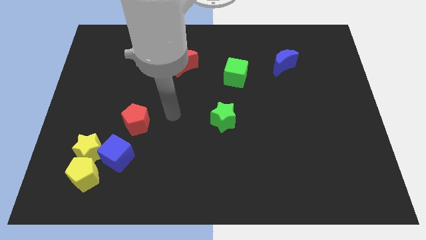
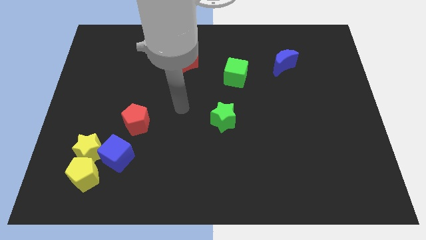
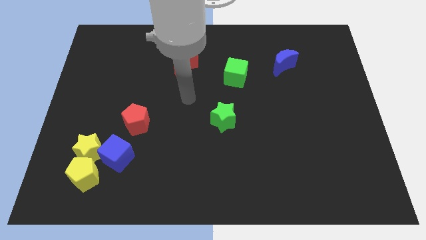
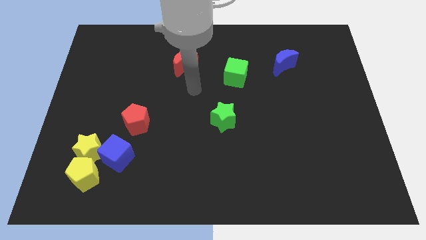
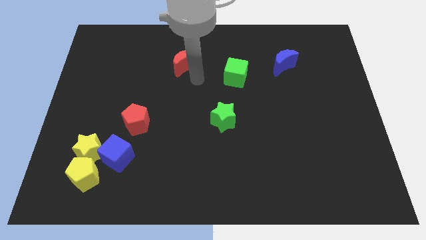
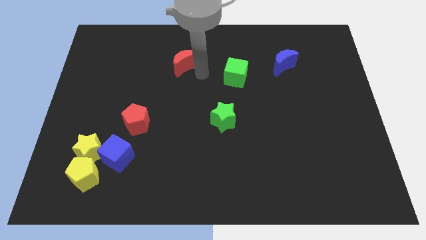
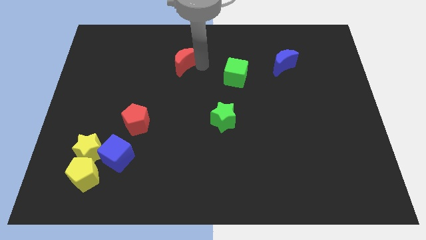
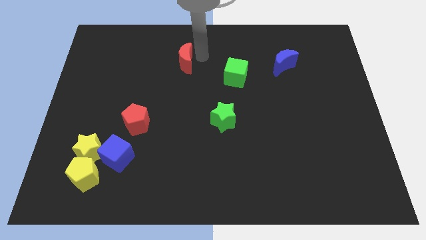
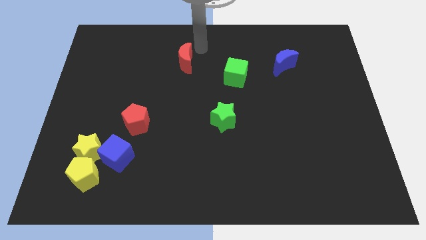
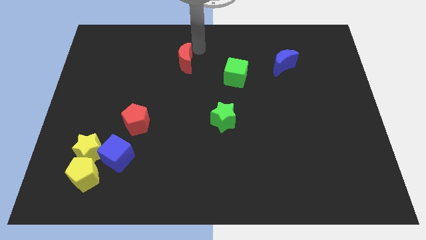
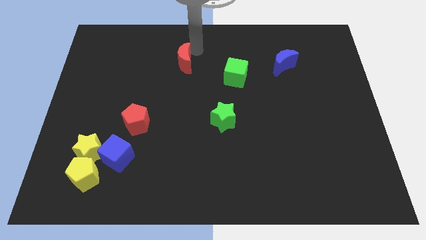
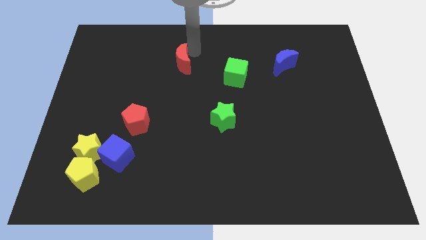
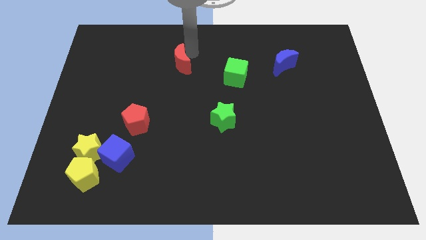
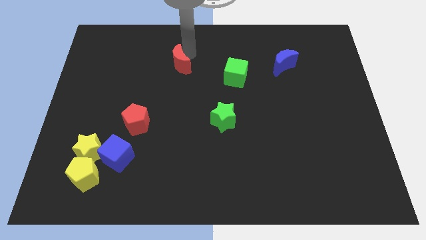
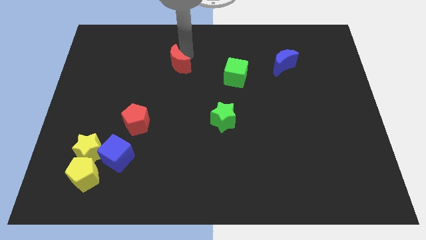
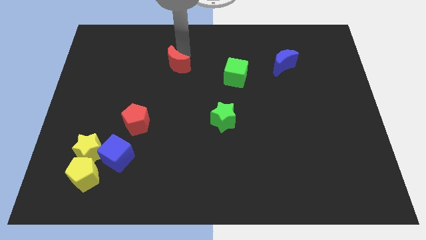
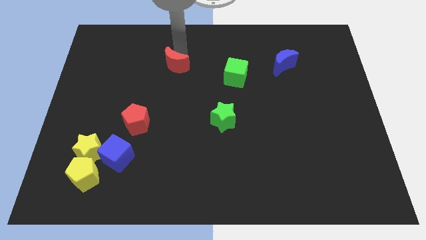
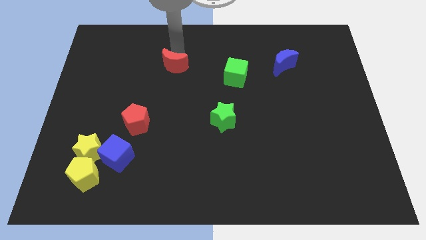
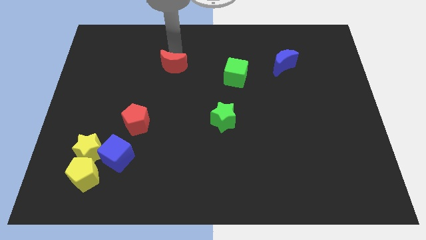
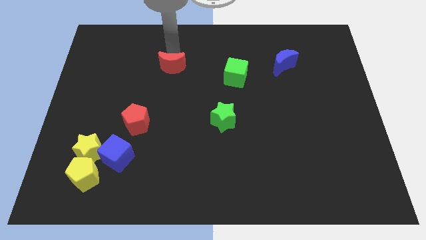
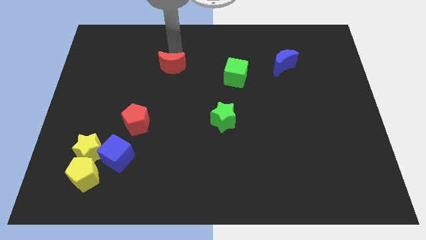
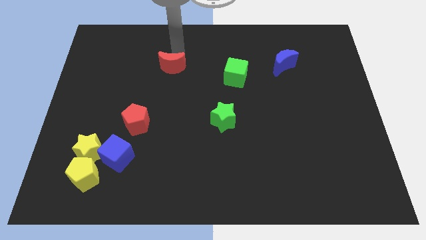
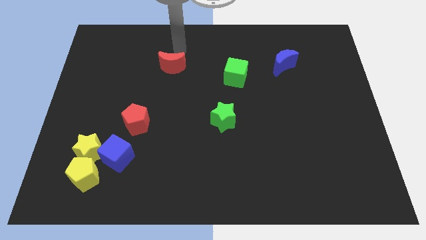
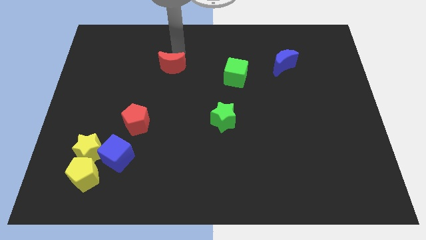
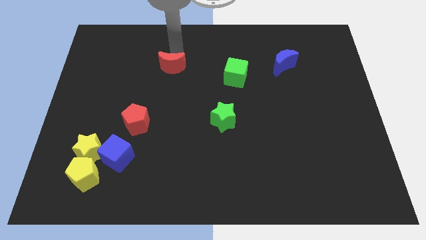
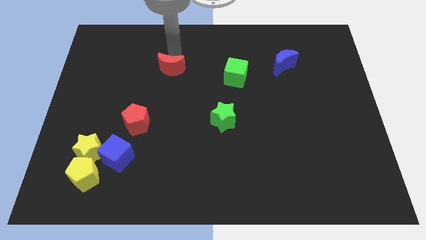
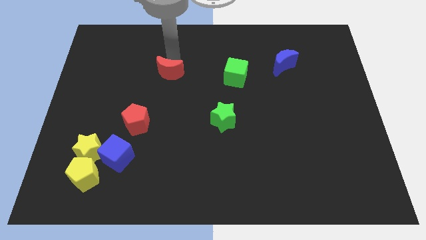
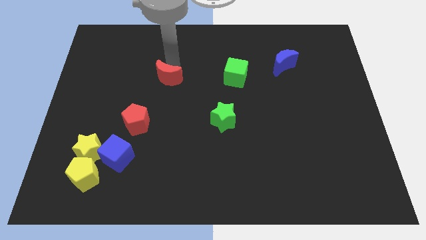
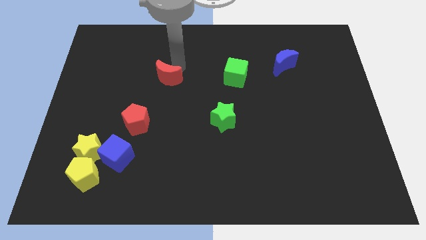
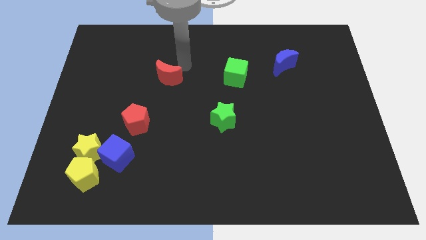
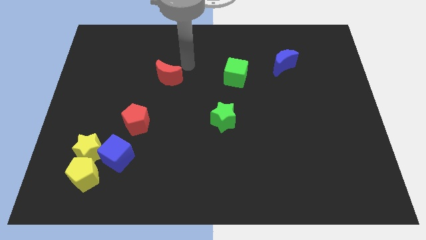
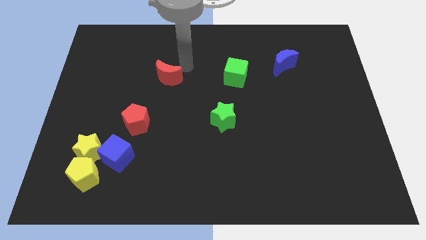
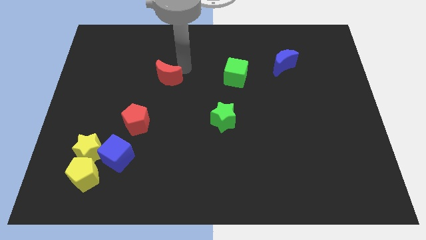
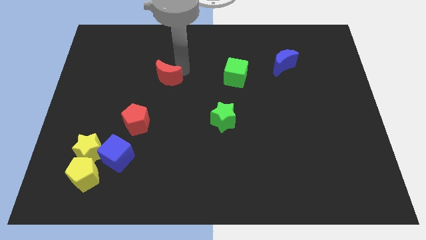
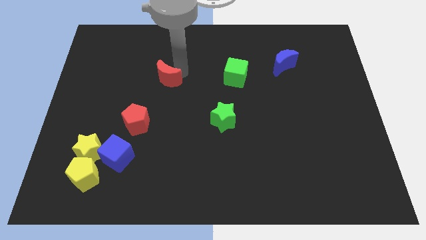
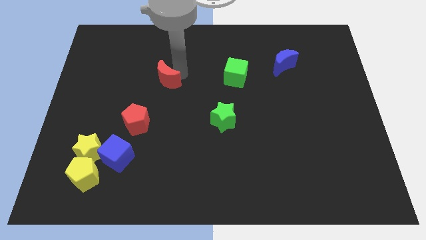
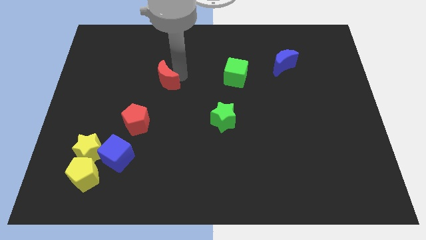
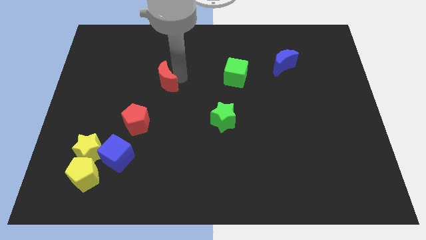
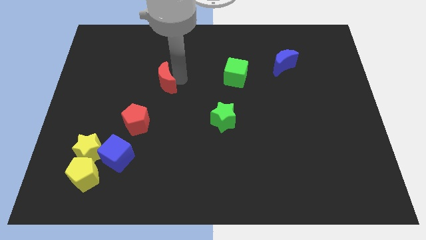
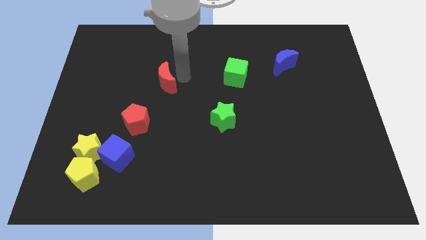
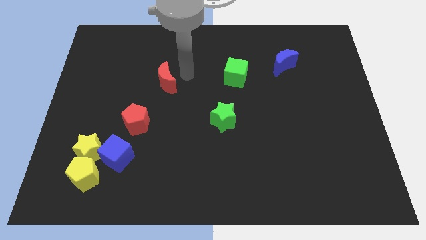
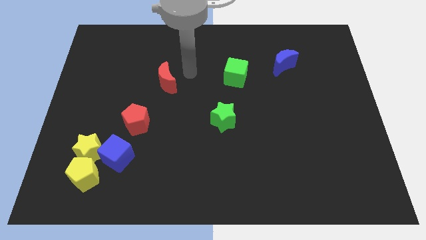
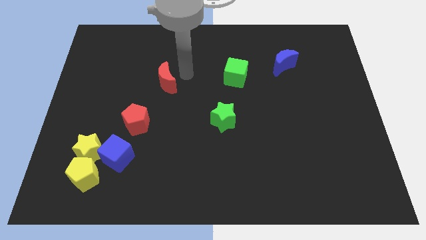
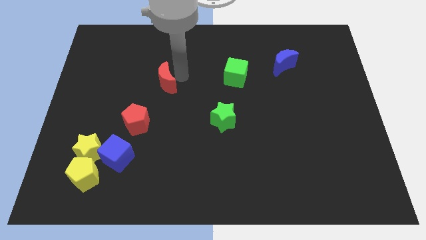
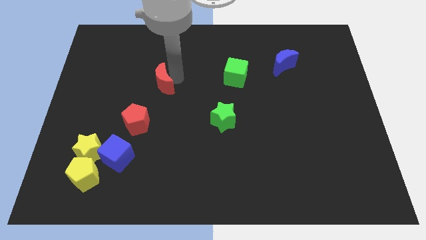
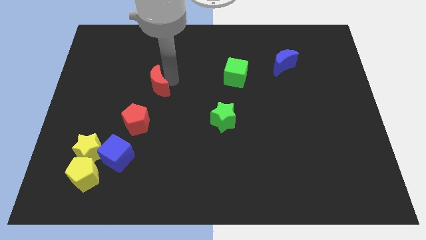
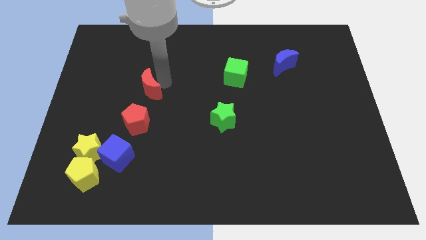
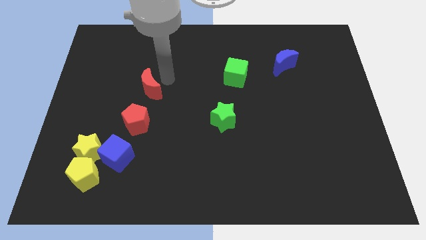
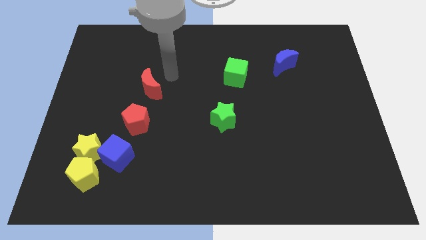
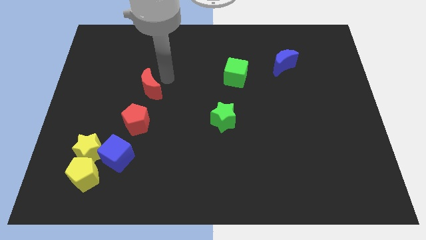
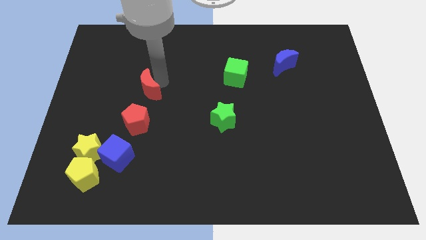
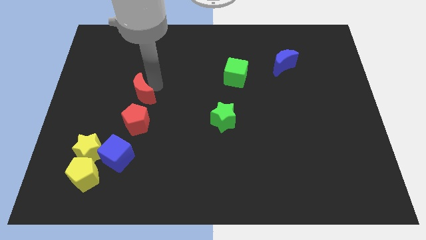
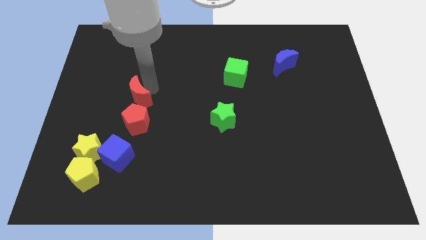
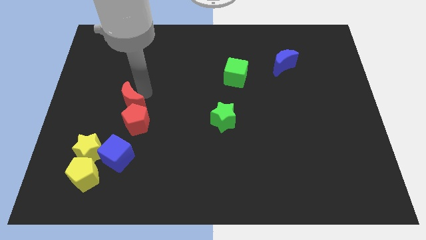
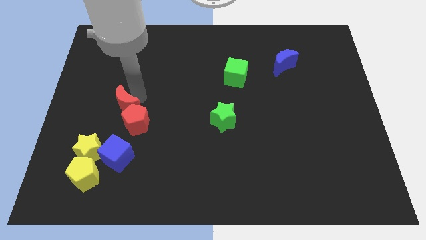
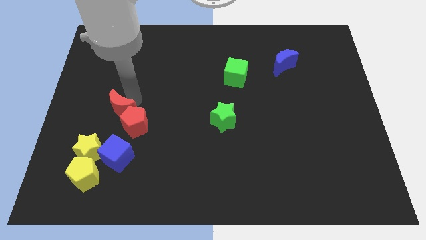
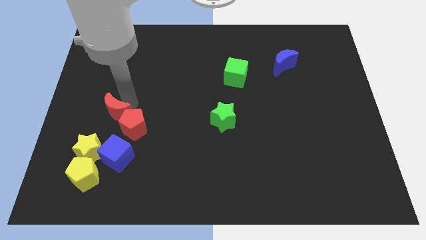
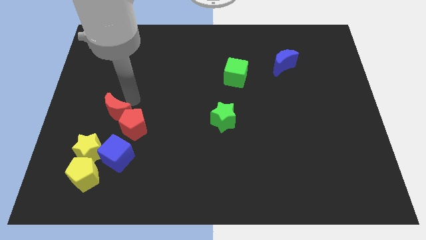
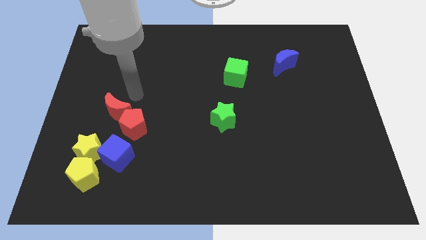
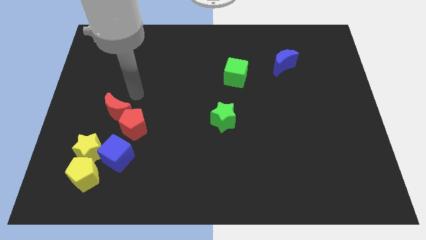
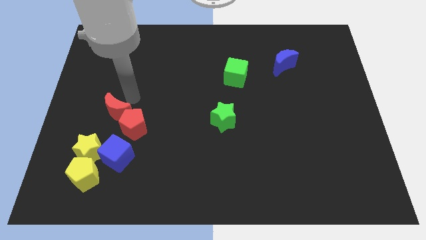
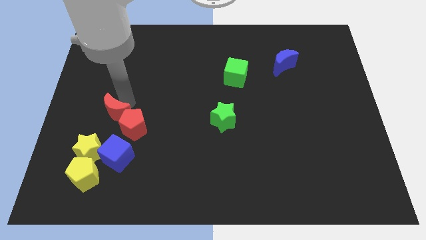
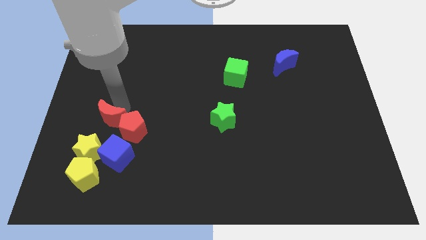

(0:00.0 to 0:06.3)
move the red moon to the top of the yellow pentagon

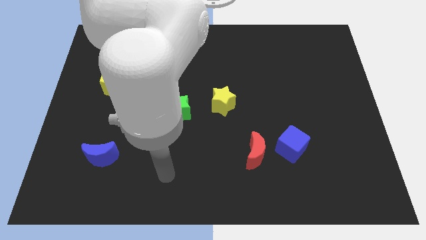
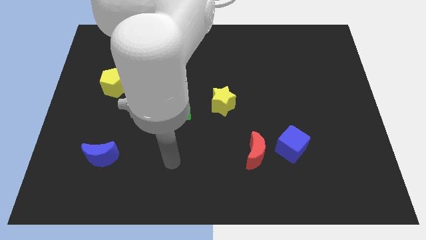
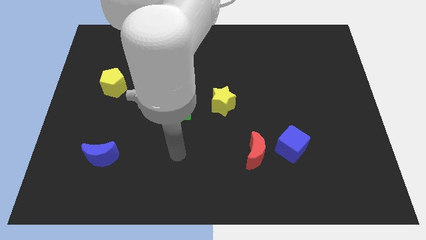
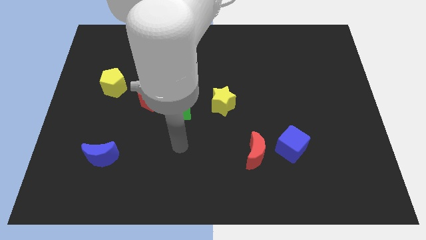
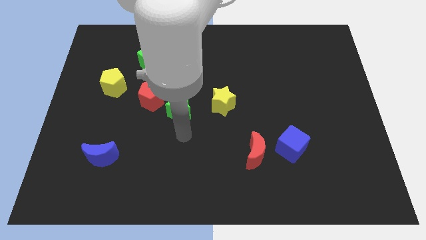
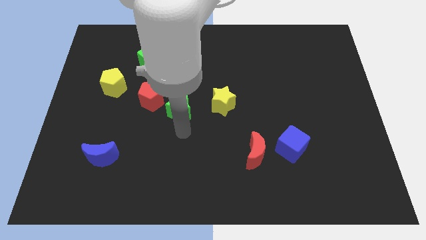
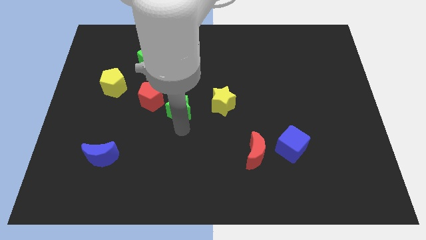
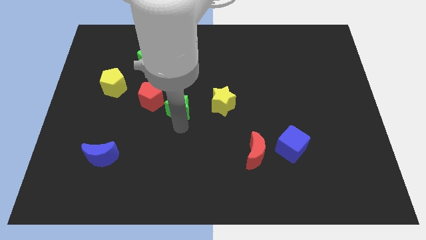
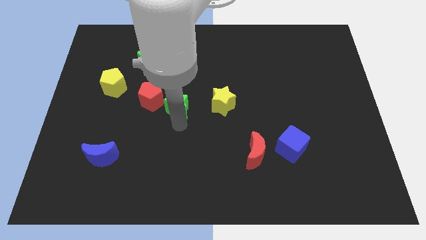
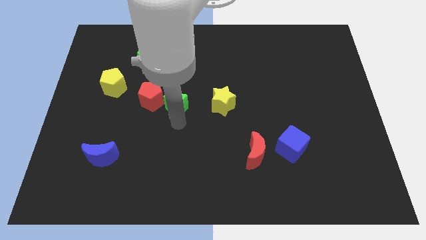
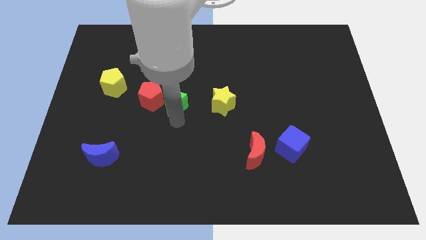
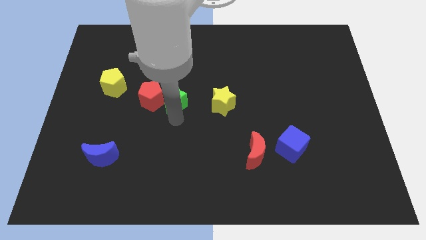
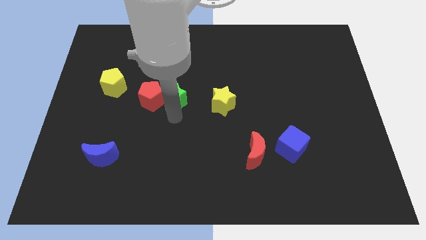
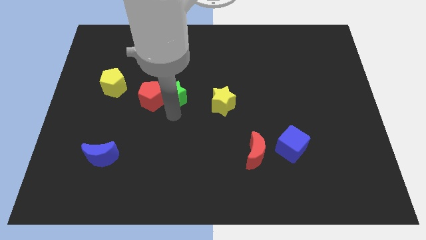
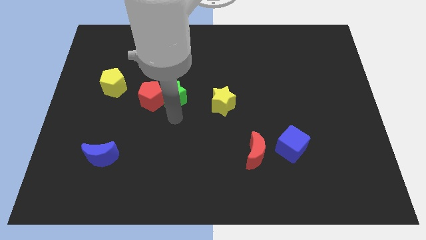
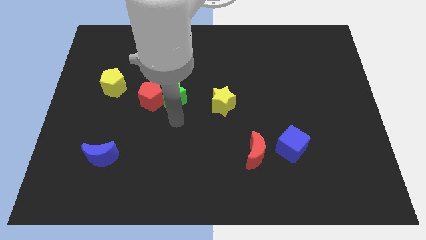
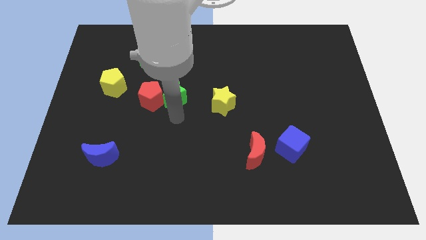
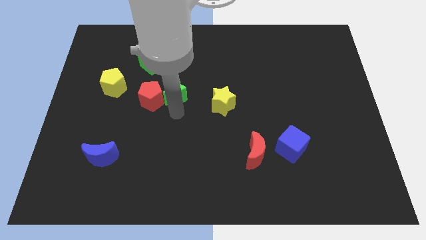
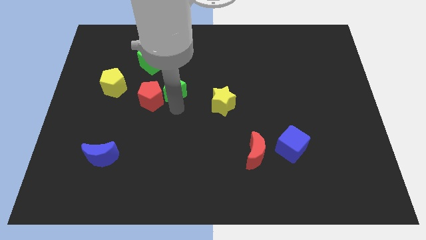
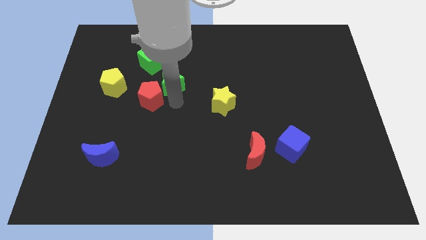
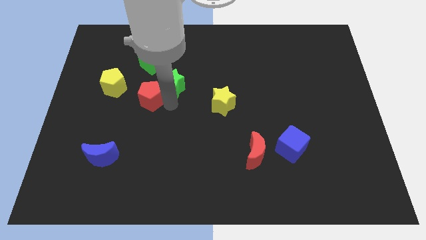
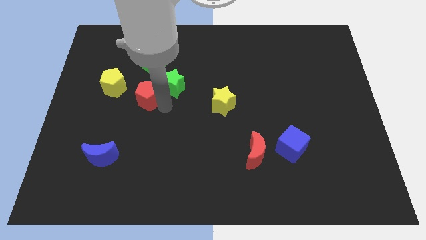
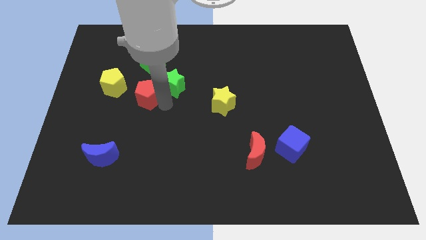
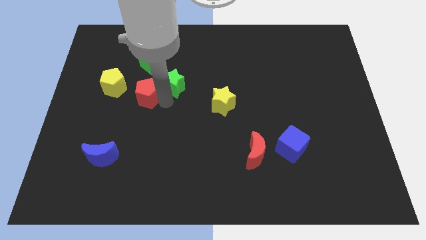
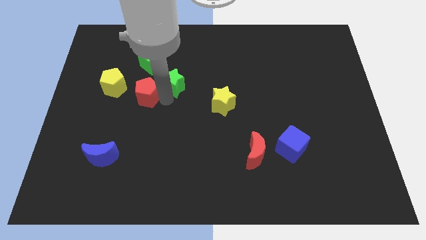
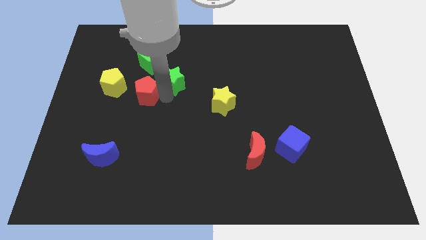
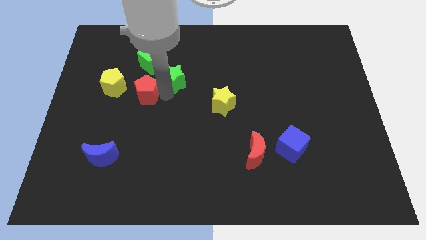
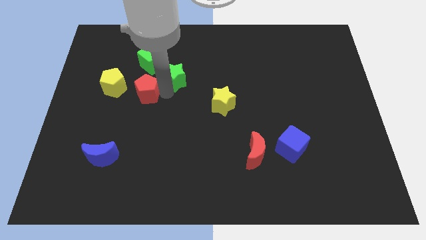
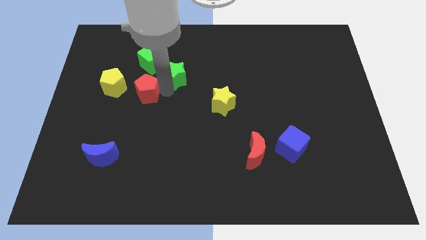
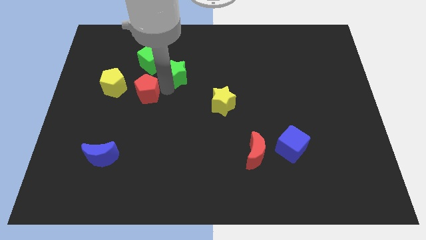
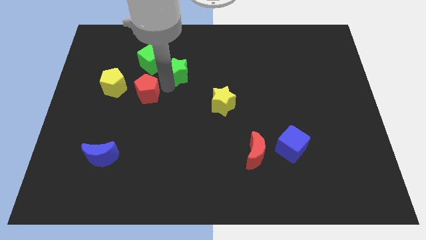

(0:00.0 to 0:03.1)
slide the green star to the right of the green cube
